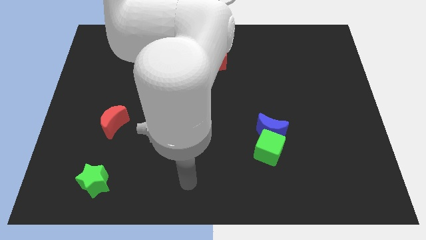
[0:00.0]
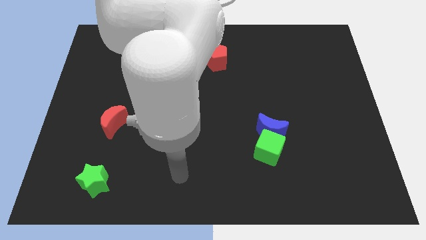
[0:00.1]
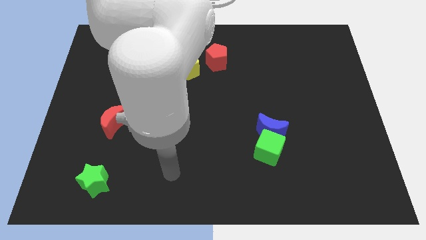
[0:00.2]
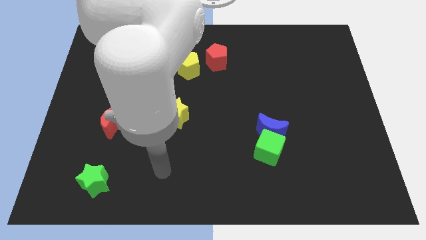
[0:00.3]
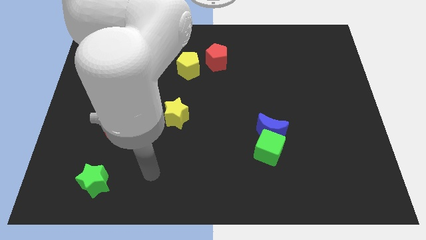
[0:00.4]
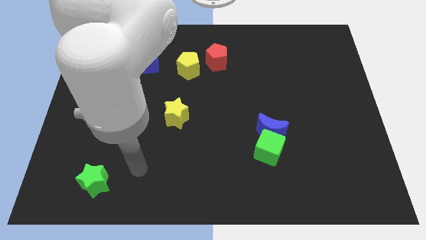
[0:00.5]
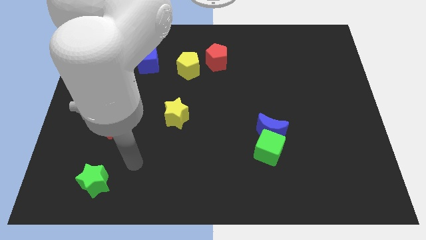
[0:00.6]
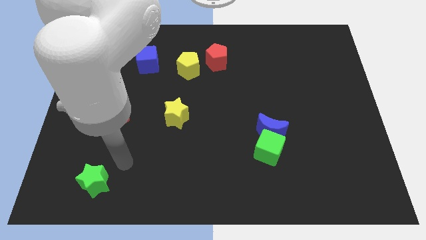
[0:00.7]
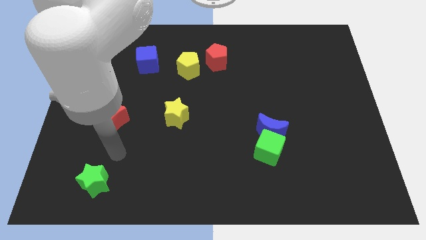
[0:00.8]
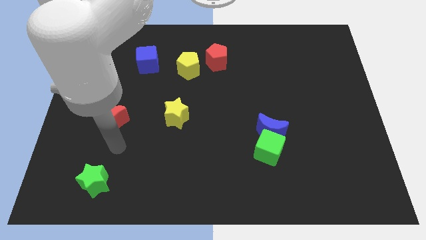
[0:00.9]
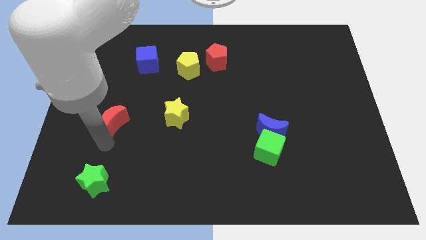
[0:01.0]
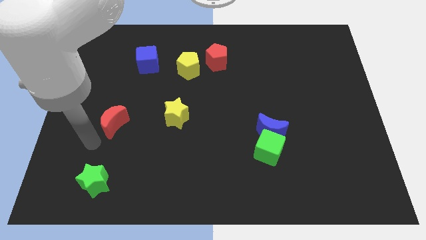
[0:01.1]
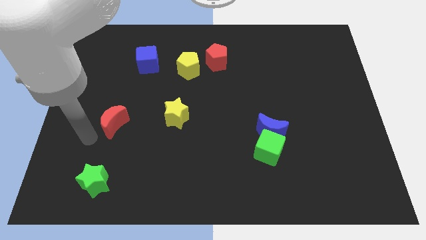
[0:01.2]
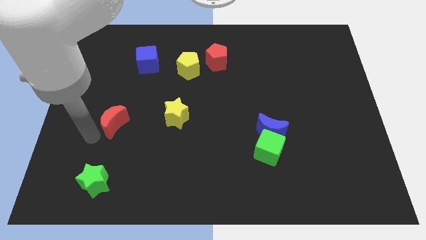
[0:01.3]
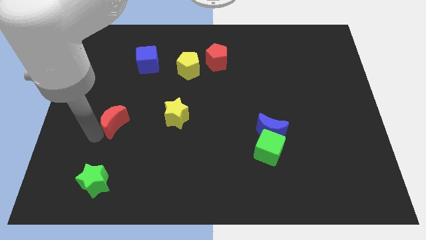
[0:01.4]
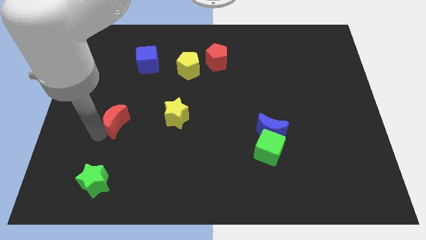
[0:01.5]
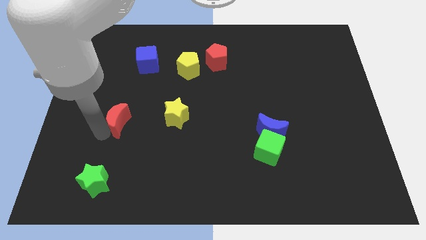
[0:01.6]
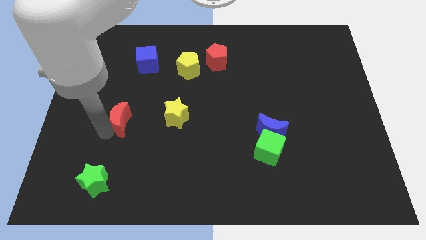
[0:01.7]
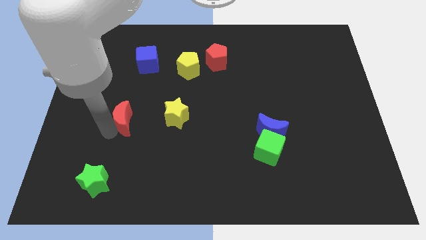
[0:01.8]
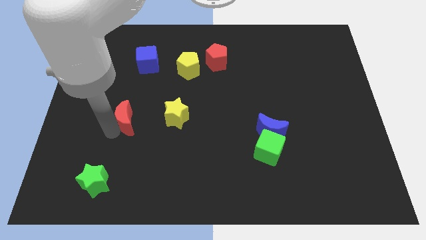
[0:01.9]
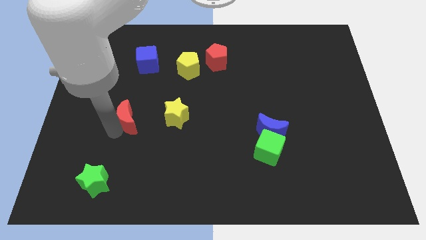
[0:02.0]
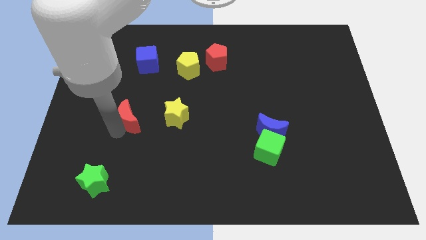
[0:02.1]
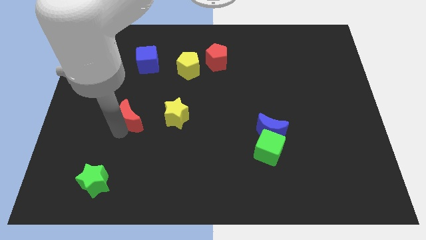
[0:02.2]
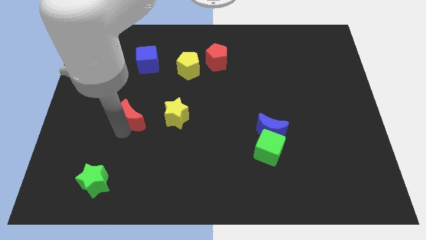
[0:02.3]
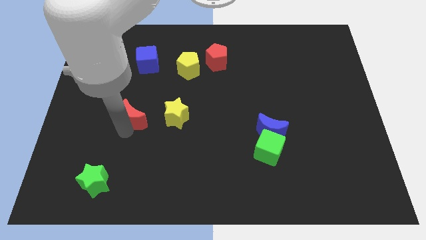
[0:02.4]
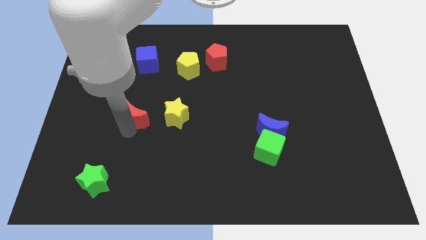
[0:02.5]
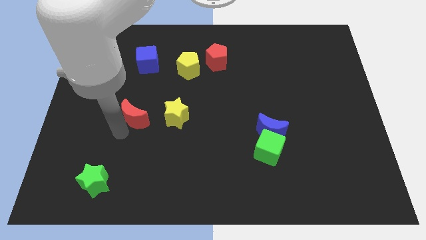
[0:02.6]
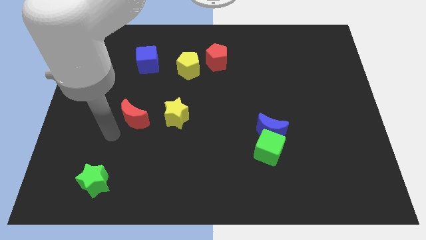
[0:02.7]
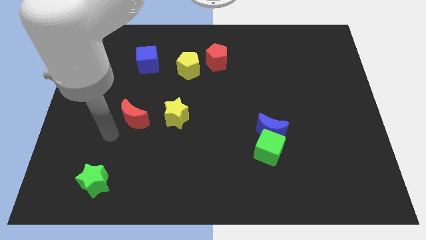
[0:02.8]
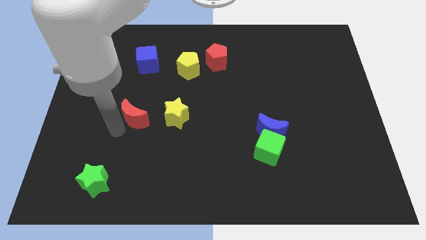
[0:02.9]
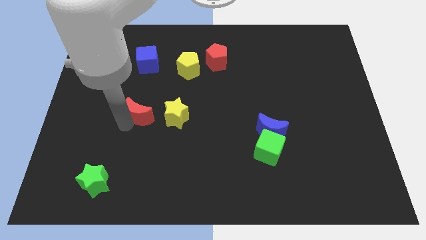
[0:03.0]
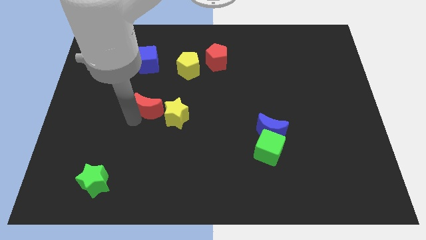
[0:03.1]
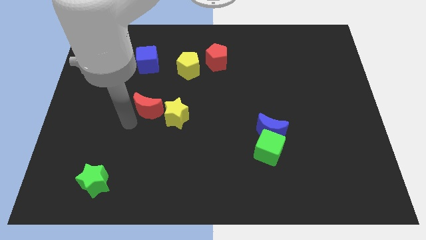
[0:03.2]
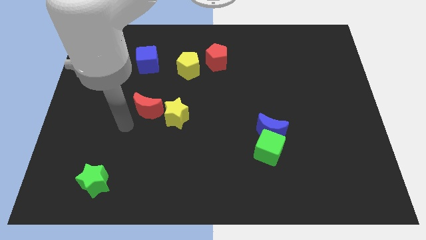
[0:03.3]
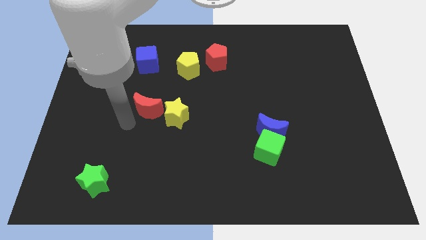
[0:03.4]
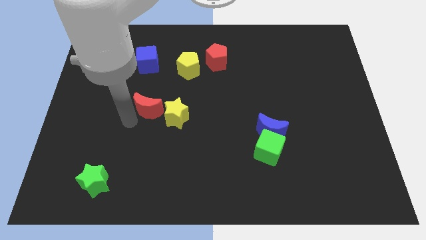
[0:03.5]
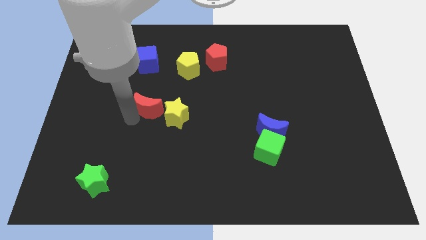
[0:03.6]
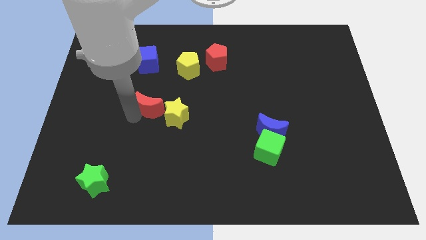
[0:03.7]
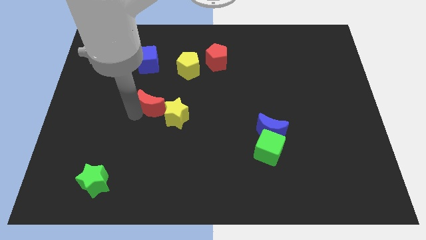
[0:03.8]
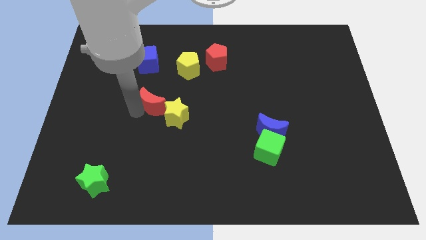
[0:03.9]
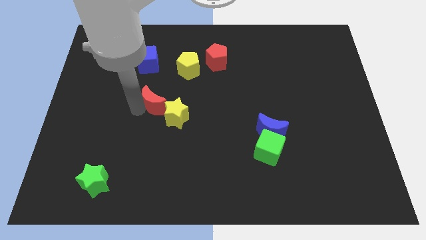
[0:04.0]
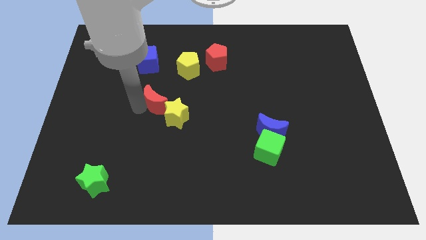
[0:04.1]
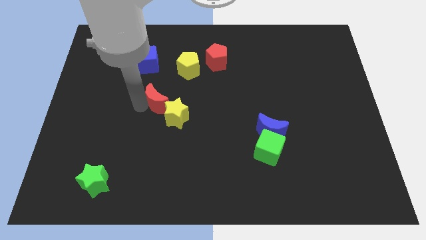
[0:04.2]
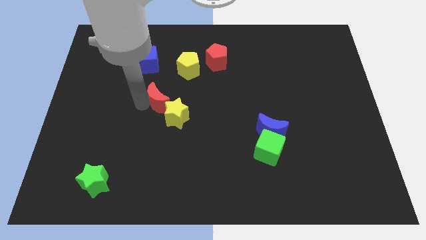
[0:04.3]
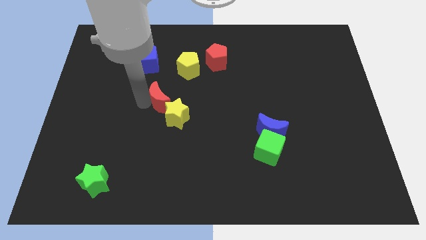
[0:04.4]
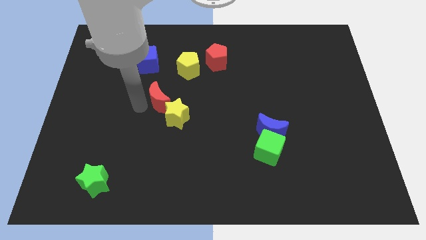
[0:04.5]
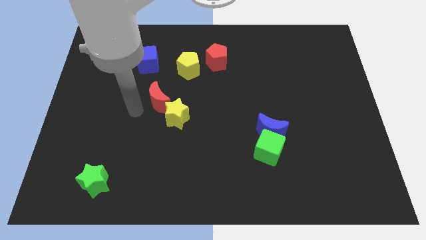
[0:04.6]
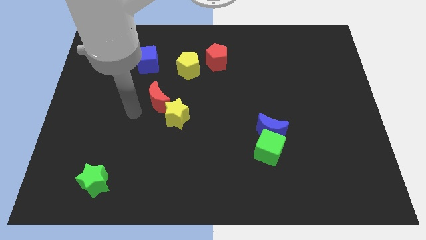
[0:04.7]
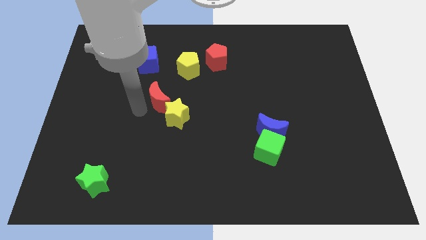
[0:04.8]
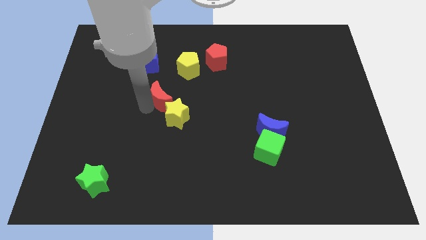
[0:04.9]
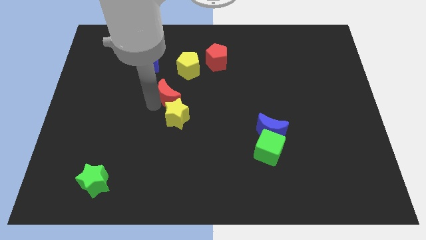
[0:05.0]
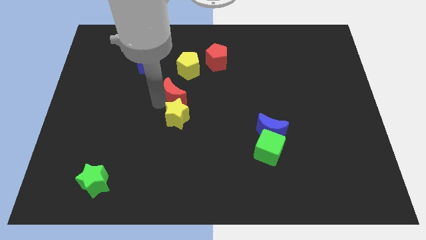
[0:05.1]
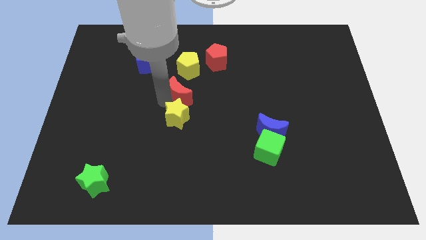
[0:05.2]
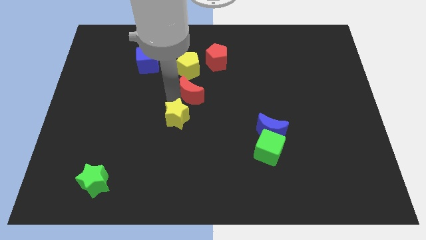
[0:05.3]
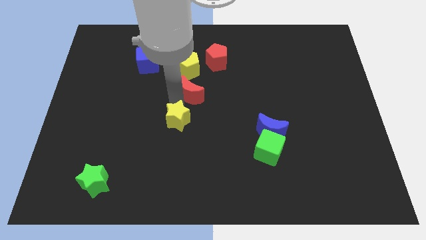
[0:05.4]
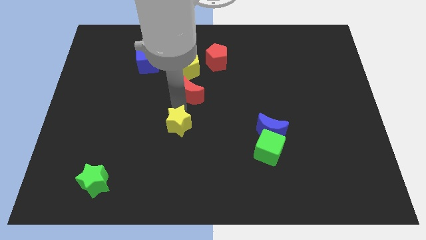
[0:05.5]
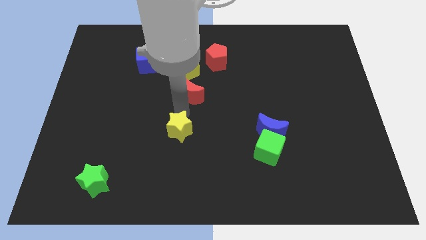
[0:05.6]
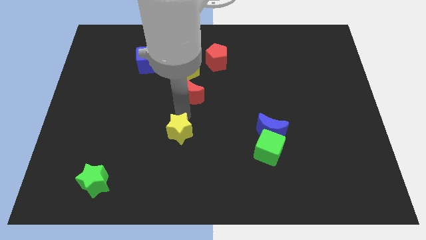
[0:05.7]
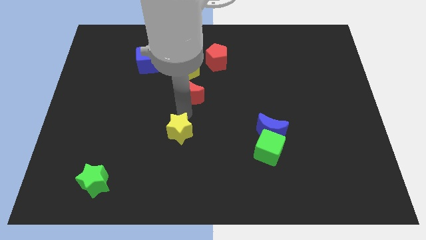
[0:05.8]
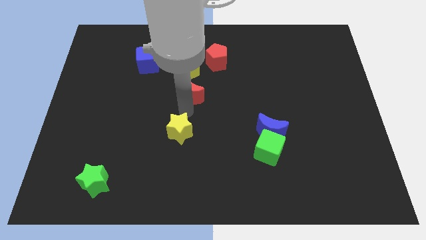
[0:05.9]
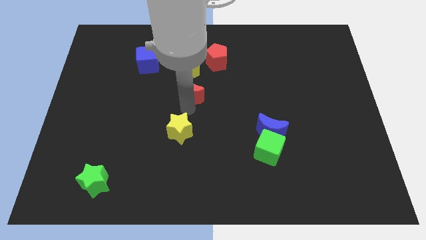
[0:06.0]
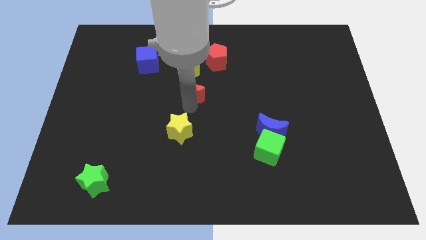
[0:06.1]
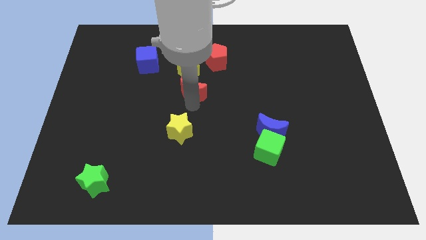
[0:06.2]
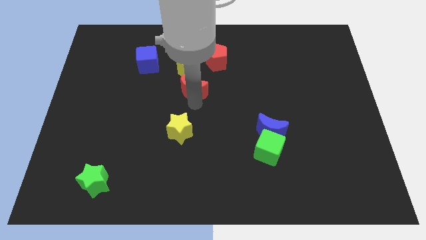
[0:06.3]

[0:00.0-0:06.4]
push the red moon to the bottom left side of the red pentagon

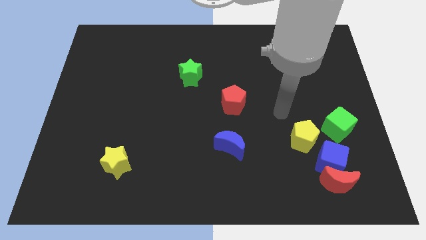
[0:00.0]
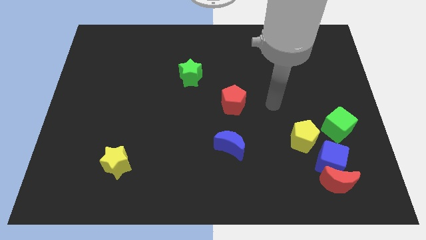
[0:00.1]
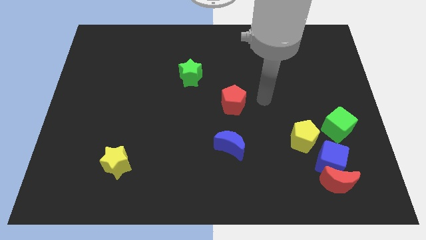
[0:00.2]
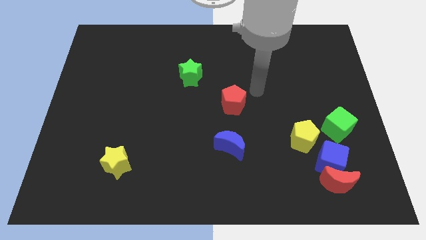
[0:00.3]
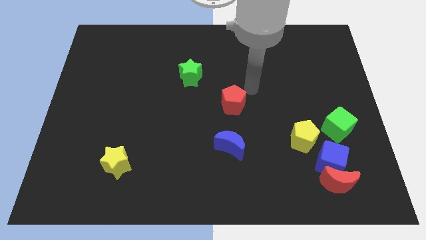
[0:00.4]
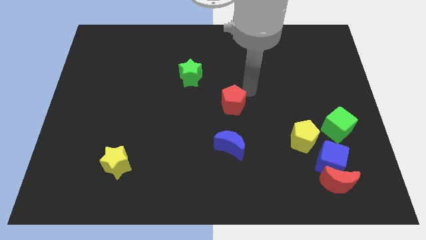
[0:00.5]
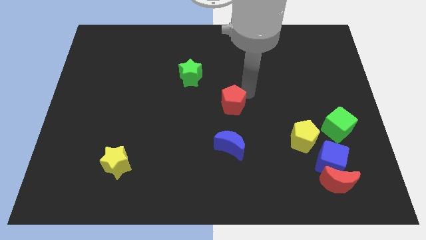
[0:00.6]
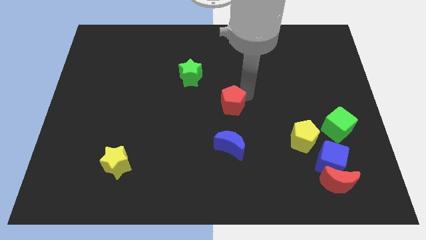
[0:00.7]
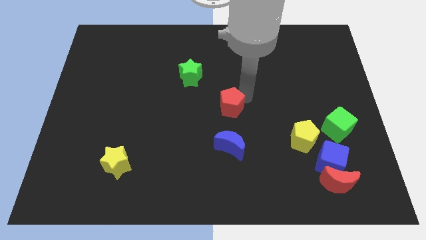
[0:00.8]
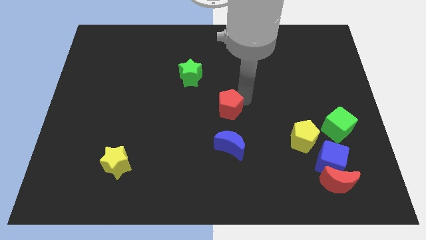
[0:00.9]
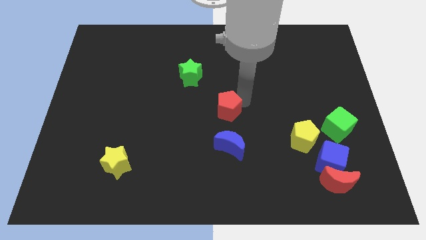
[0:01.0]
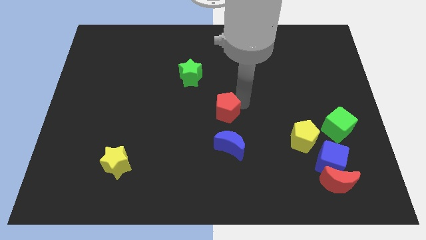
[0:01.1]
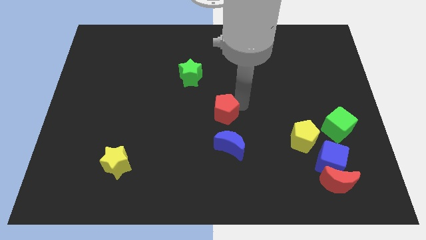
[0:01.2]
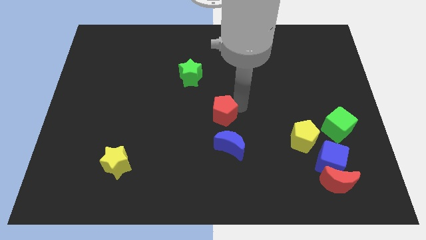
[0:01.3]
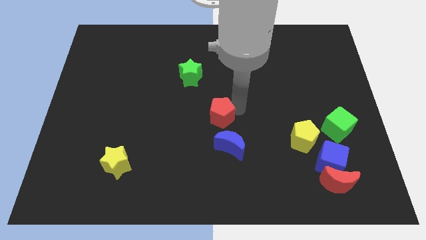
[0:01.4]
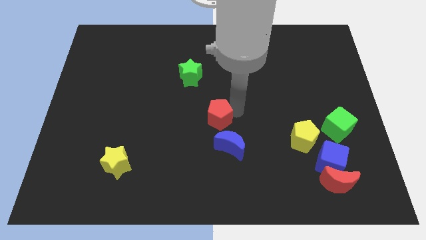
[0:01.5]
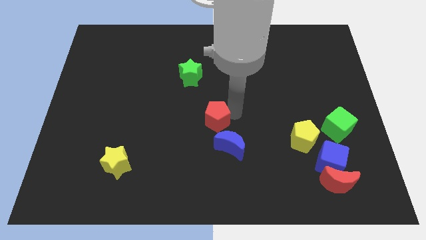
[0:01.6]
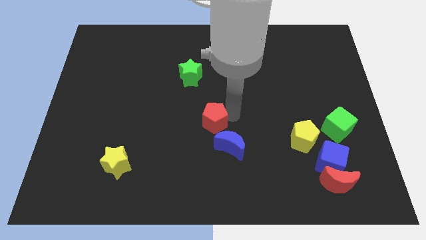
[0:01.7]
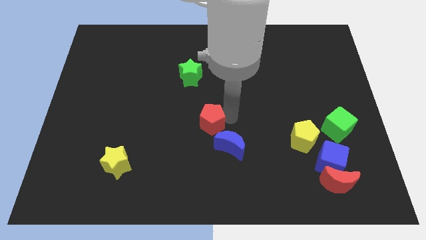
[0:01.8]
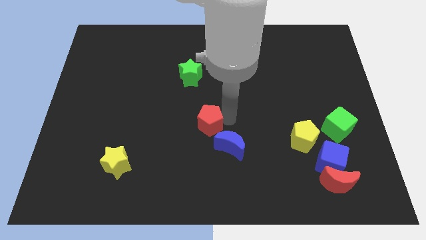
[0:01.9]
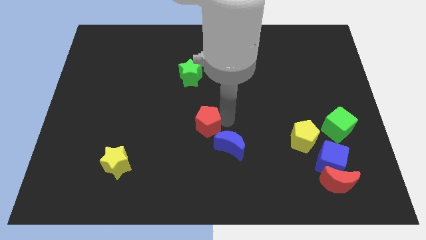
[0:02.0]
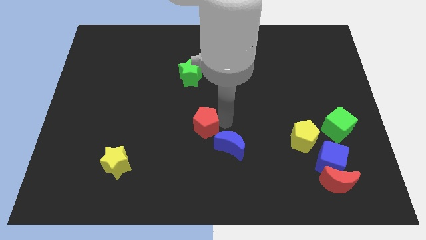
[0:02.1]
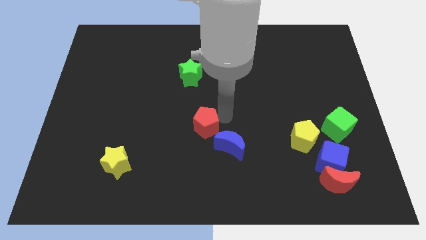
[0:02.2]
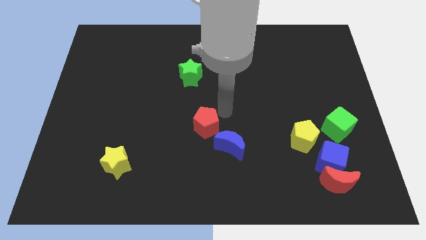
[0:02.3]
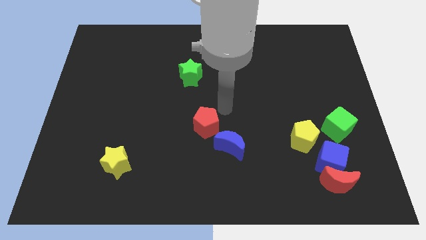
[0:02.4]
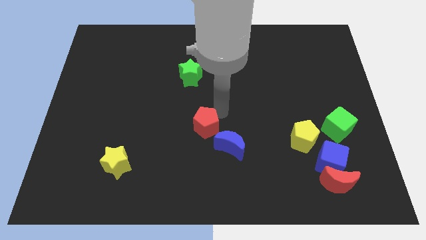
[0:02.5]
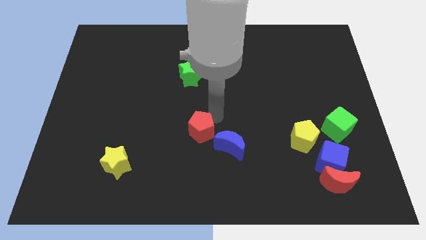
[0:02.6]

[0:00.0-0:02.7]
slide the red pentagon to the left of the blue moon
